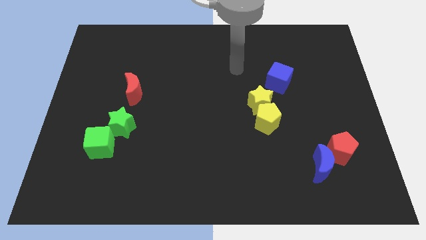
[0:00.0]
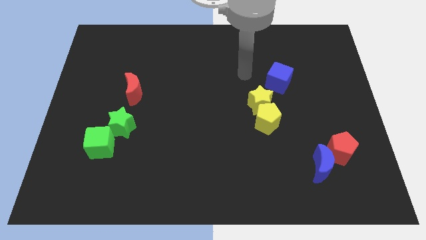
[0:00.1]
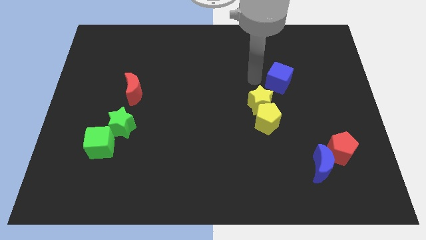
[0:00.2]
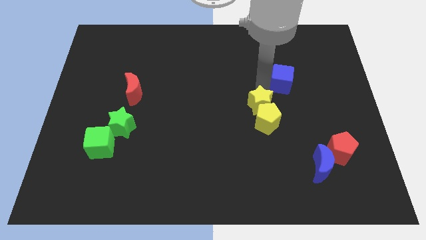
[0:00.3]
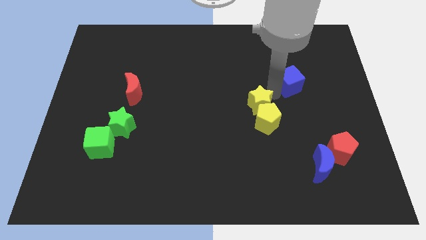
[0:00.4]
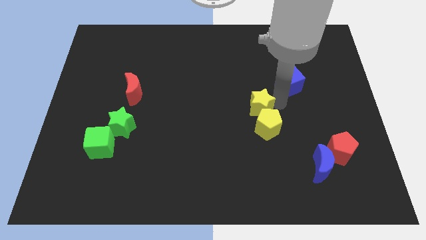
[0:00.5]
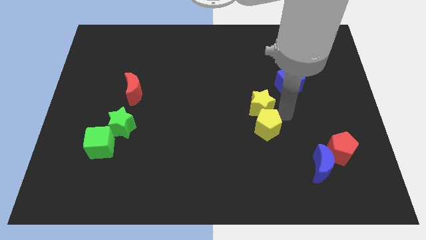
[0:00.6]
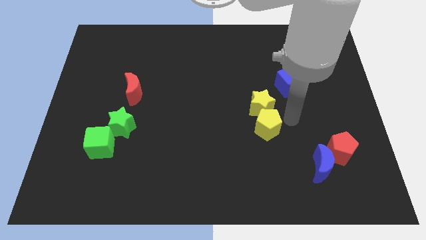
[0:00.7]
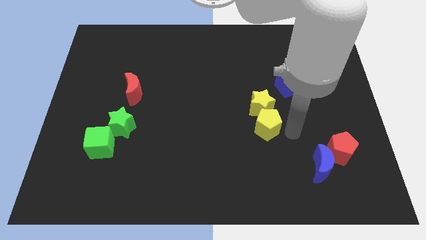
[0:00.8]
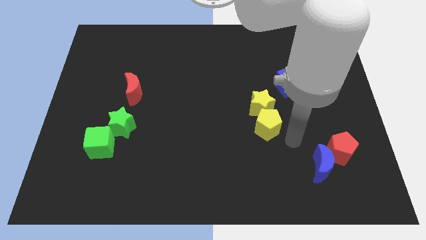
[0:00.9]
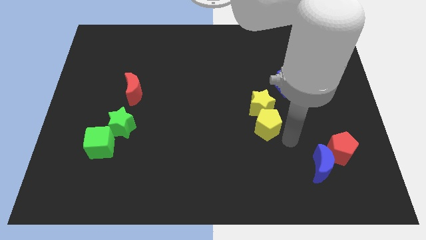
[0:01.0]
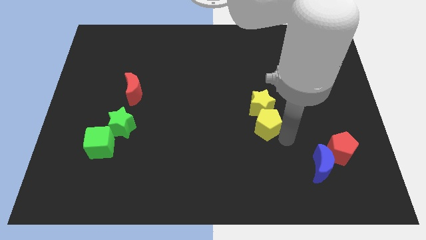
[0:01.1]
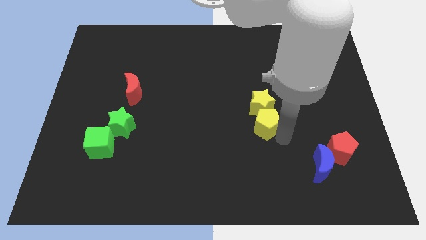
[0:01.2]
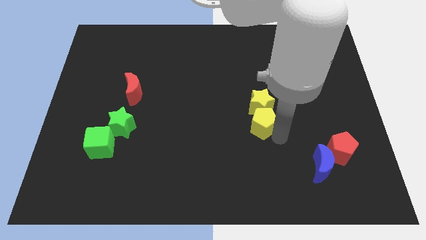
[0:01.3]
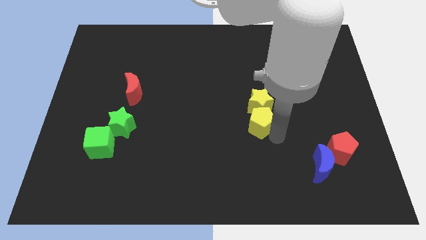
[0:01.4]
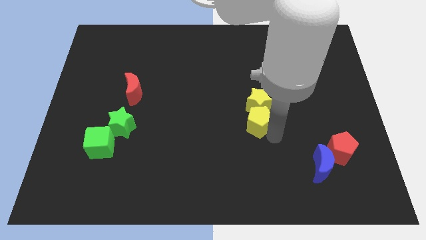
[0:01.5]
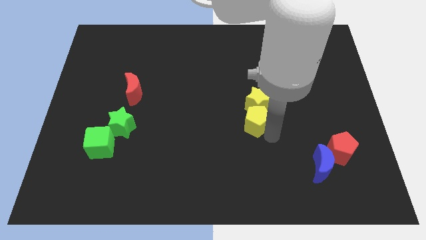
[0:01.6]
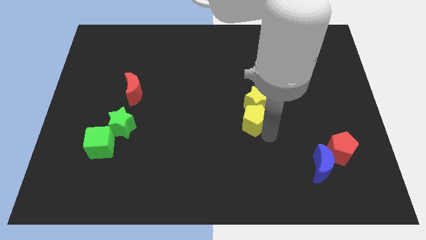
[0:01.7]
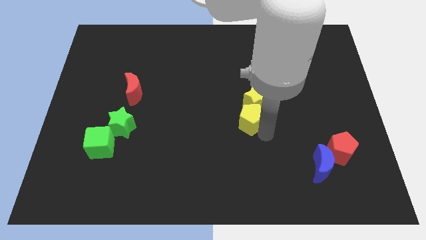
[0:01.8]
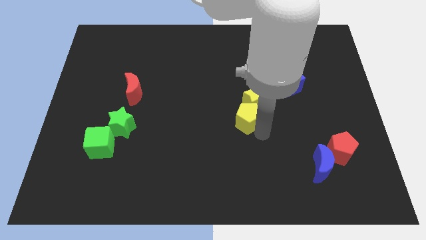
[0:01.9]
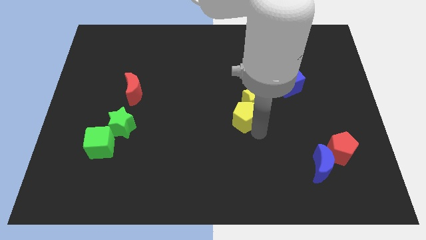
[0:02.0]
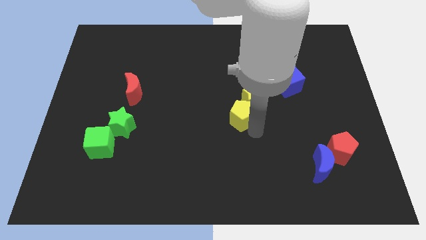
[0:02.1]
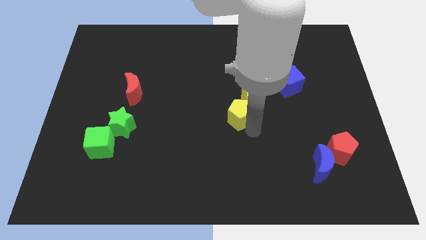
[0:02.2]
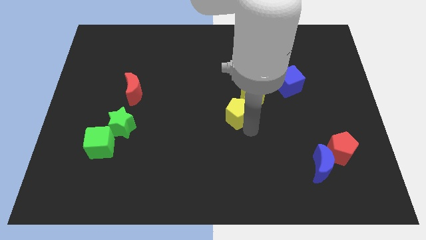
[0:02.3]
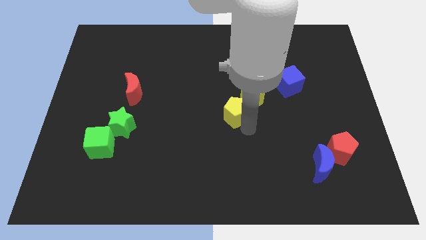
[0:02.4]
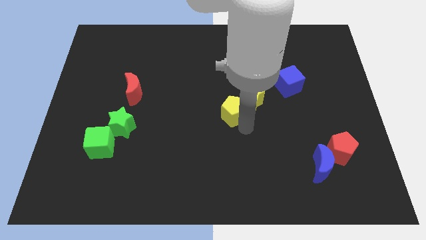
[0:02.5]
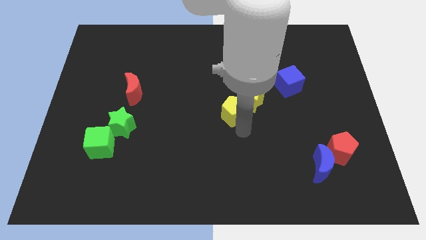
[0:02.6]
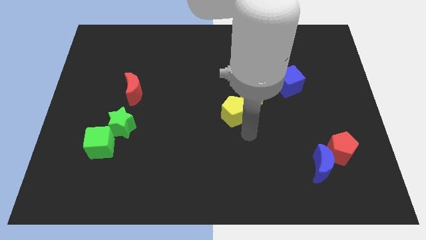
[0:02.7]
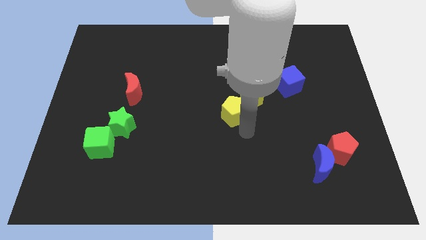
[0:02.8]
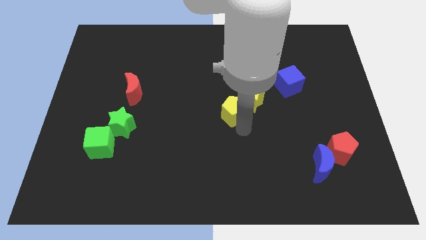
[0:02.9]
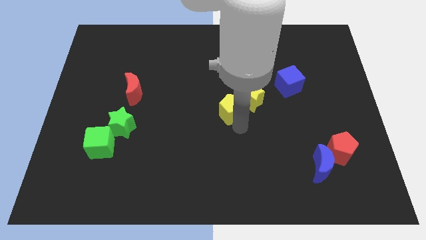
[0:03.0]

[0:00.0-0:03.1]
slide the yellow pentagon upwards and to the left diagonally somewhat

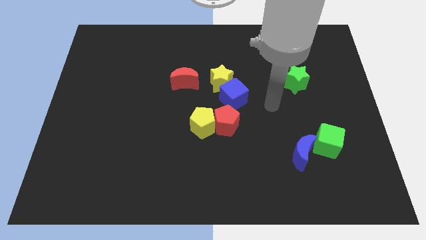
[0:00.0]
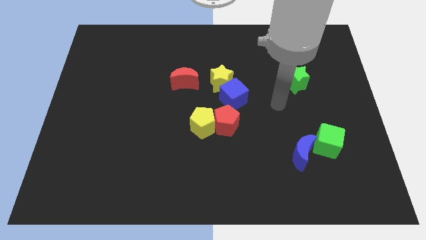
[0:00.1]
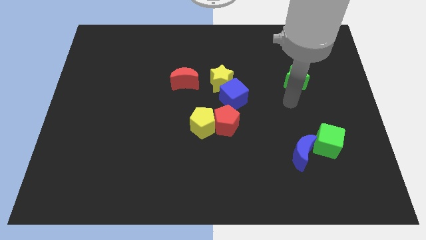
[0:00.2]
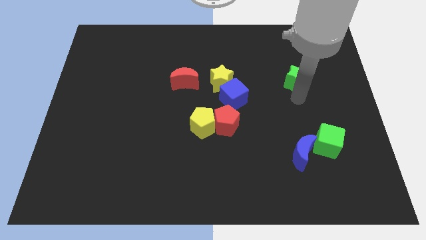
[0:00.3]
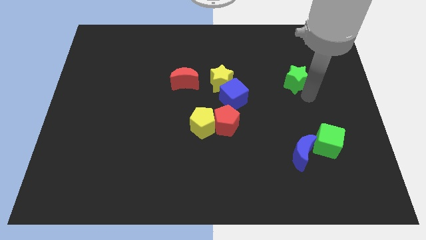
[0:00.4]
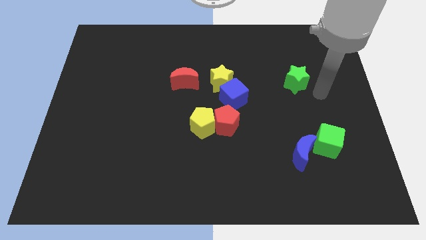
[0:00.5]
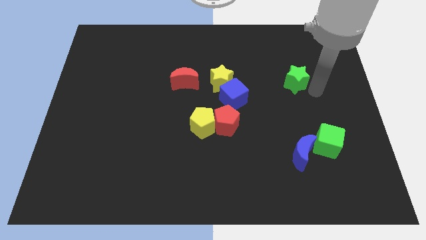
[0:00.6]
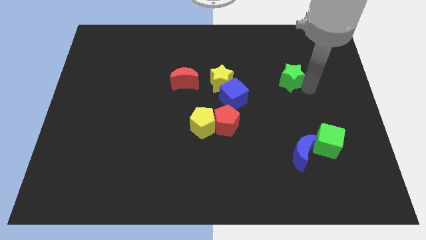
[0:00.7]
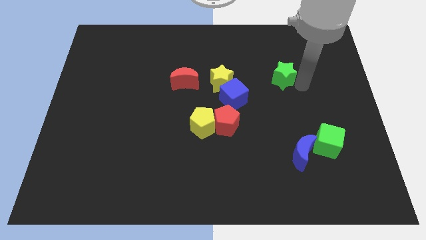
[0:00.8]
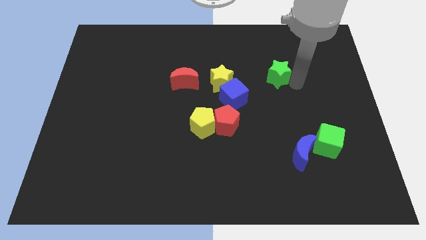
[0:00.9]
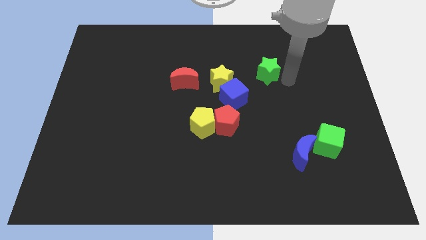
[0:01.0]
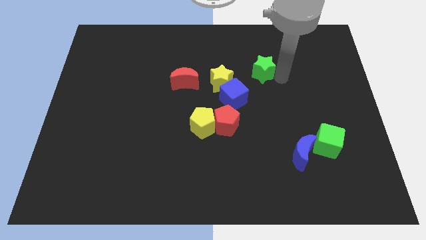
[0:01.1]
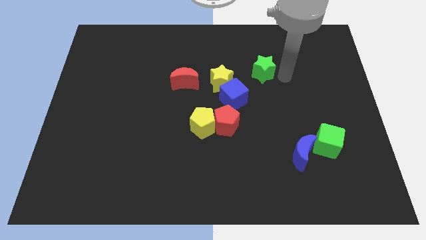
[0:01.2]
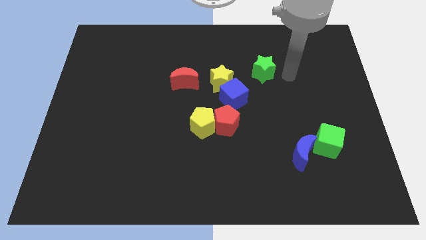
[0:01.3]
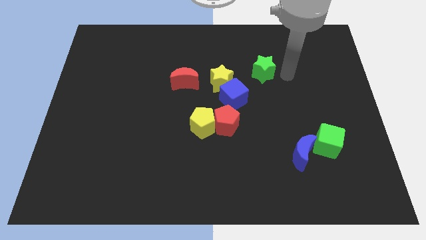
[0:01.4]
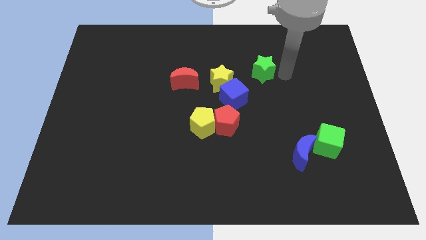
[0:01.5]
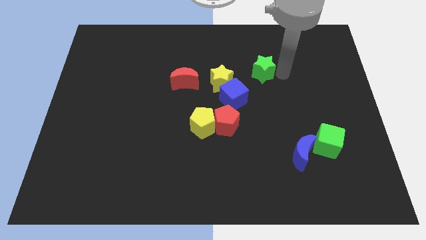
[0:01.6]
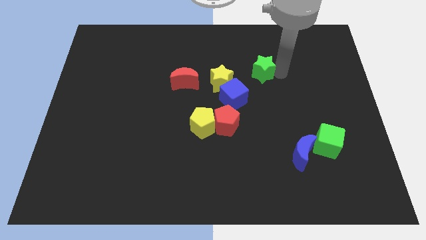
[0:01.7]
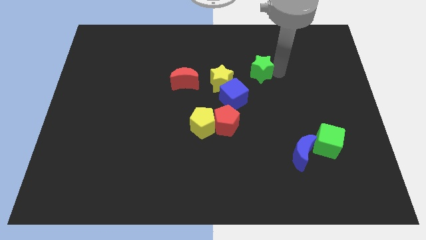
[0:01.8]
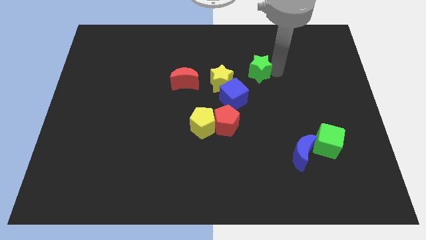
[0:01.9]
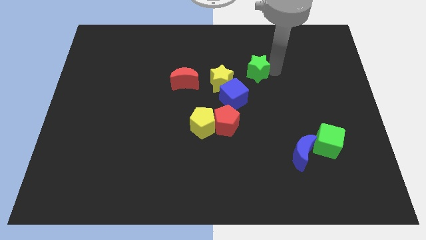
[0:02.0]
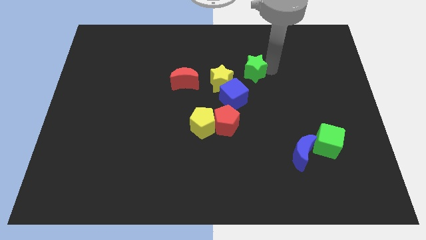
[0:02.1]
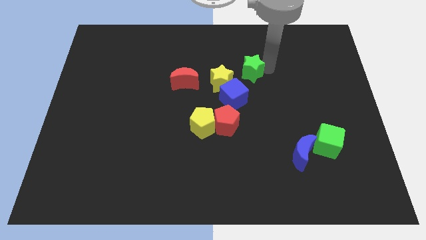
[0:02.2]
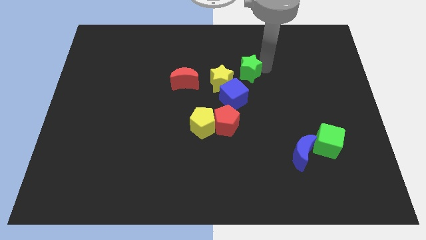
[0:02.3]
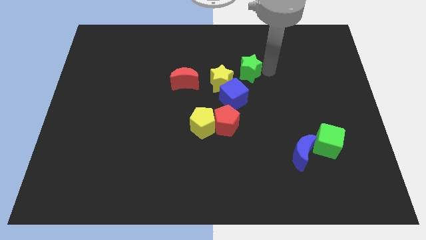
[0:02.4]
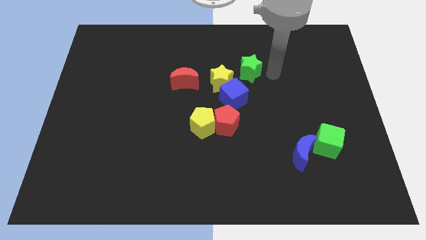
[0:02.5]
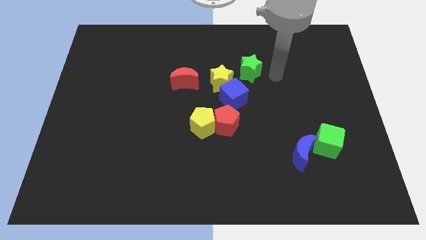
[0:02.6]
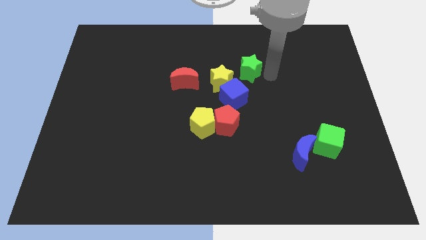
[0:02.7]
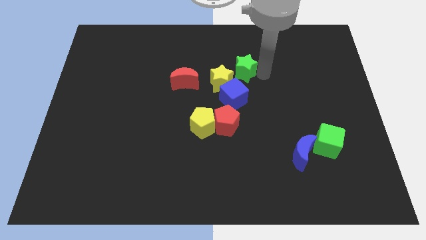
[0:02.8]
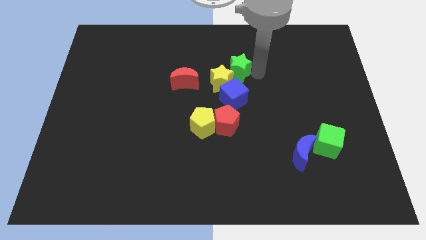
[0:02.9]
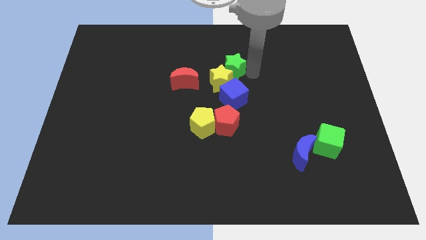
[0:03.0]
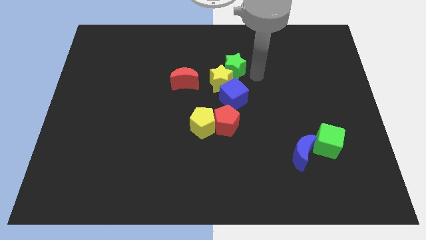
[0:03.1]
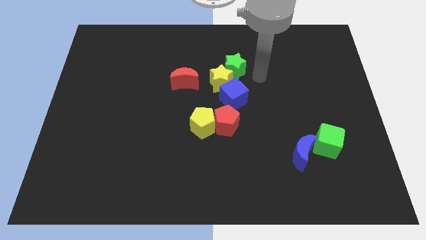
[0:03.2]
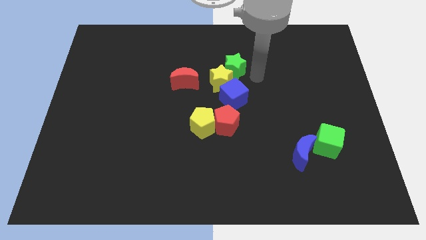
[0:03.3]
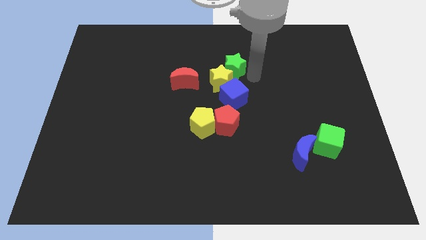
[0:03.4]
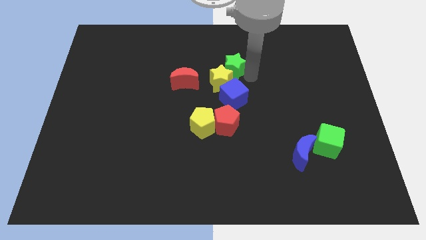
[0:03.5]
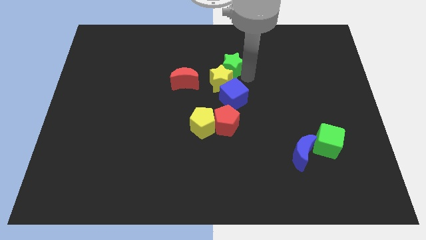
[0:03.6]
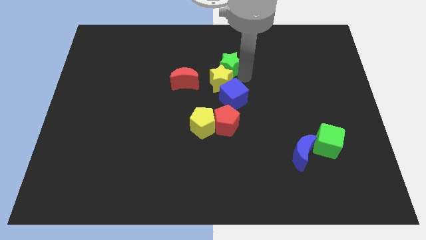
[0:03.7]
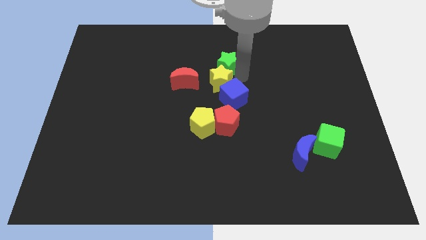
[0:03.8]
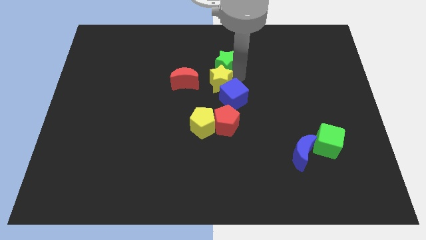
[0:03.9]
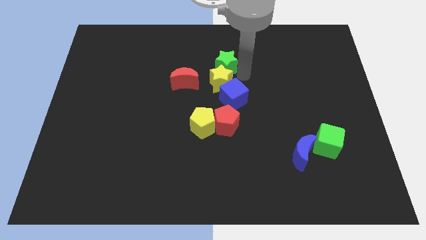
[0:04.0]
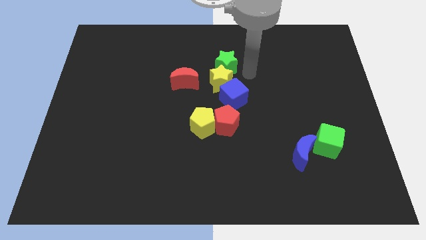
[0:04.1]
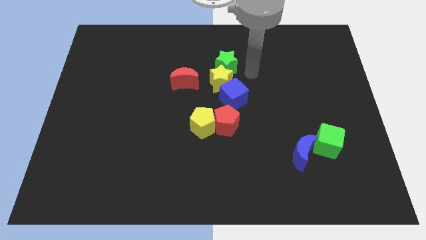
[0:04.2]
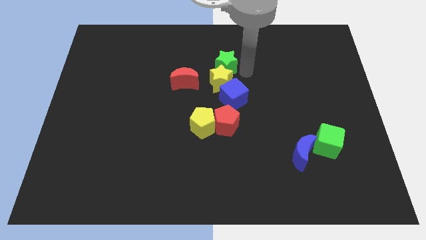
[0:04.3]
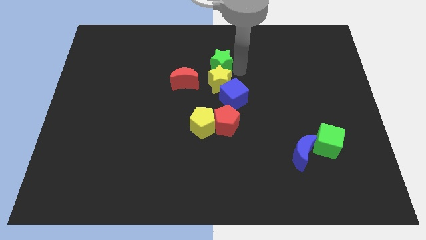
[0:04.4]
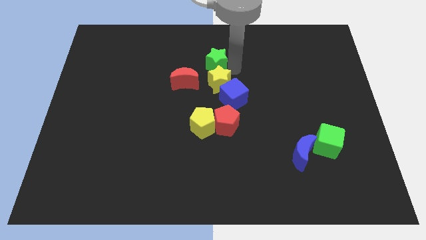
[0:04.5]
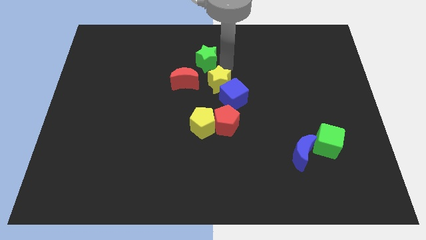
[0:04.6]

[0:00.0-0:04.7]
slide the green star to the left
